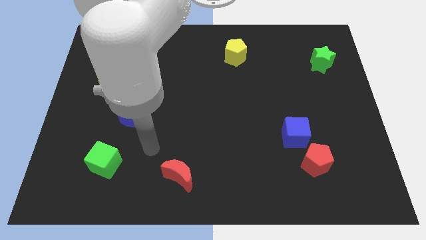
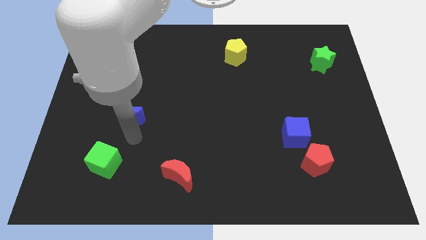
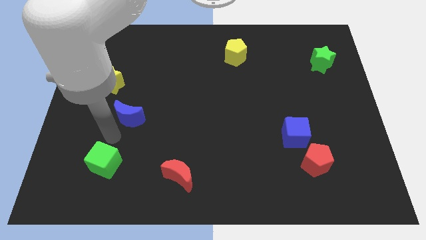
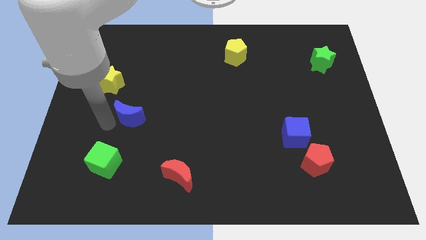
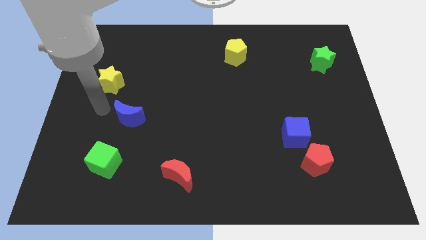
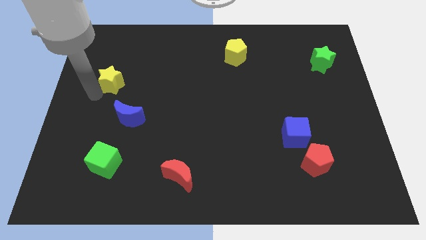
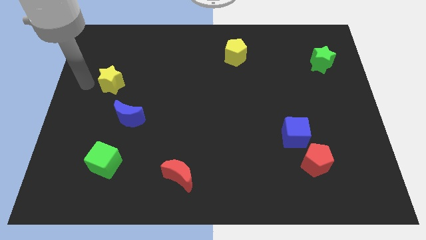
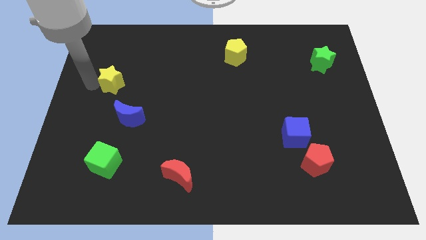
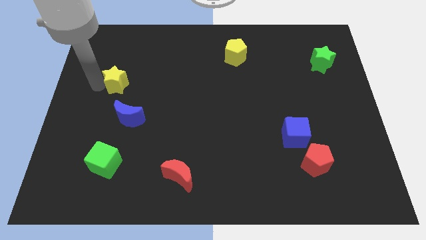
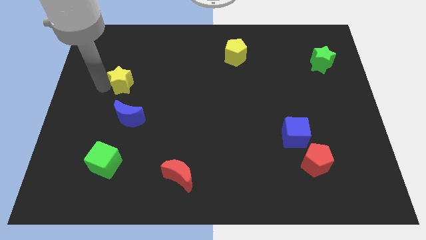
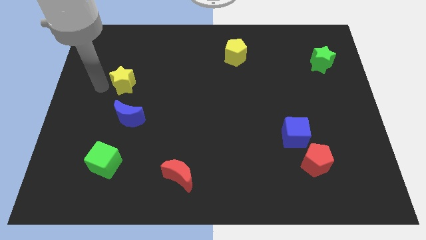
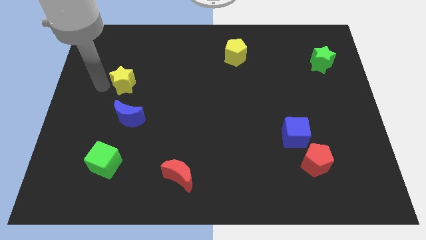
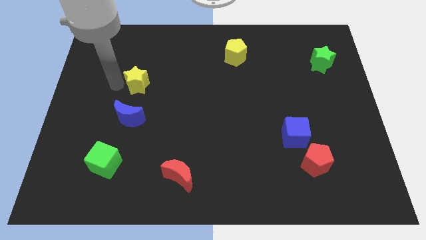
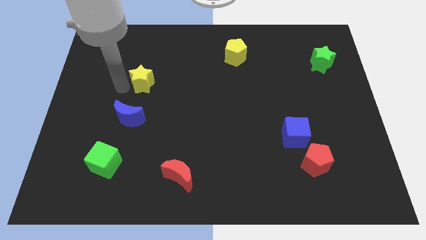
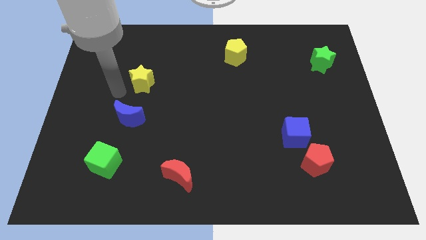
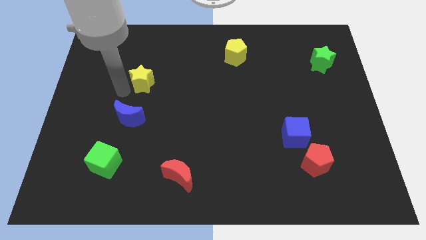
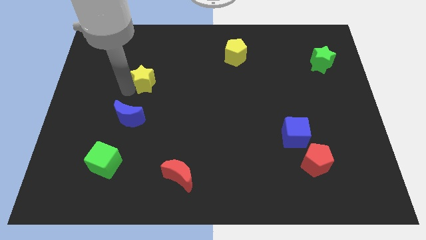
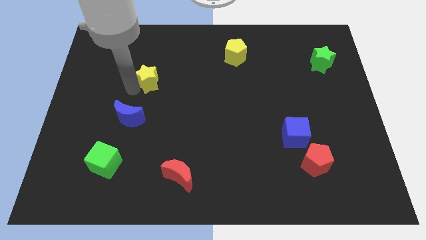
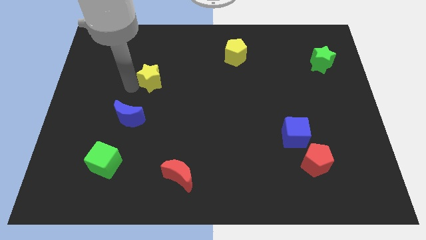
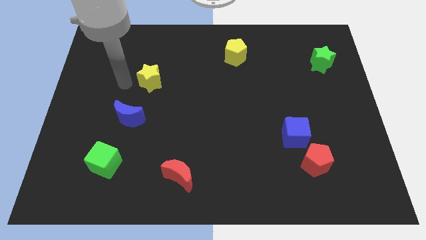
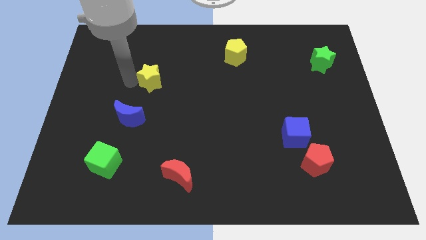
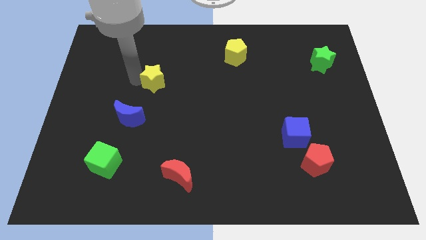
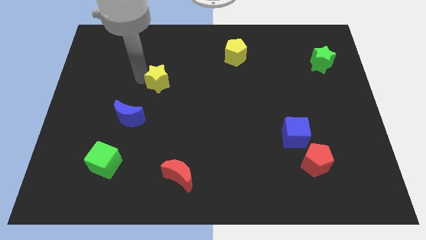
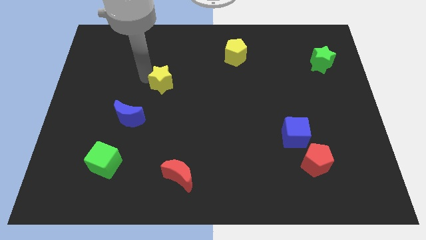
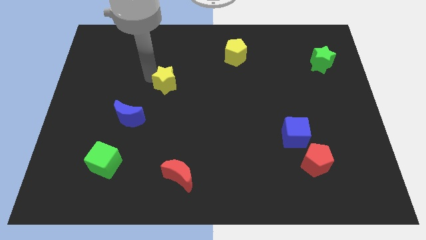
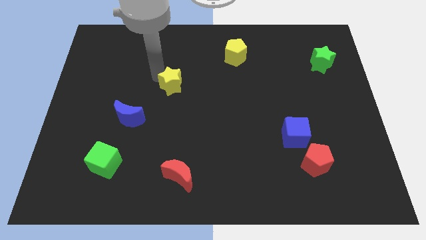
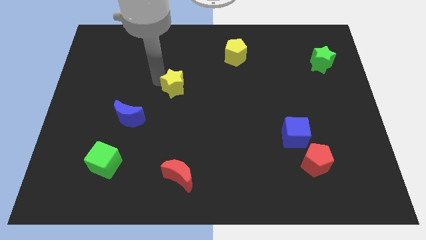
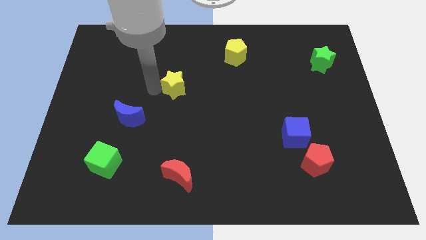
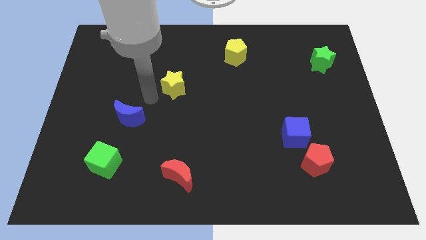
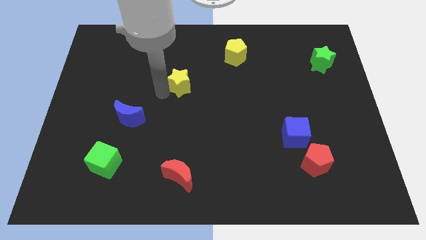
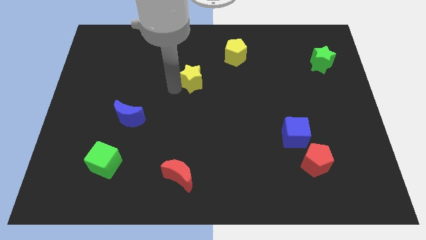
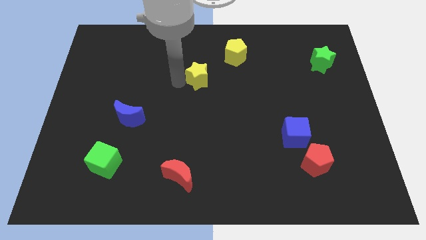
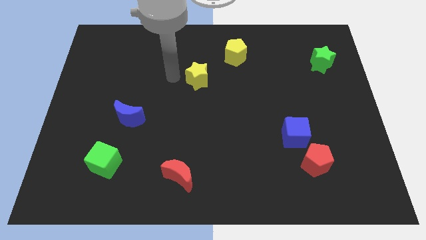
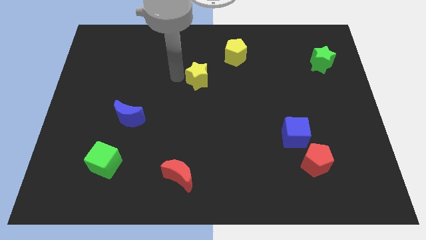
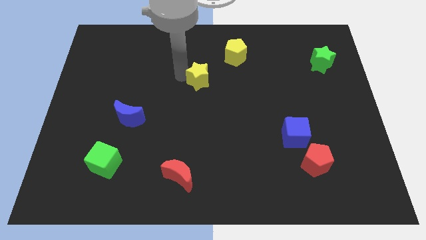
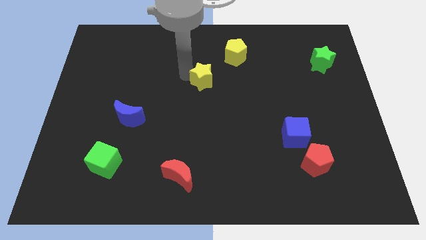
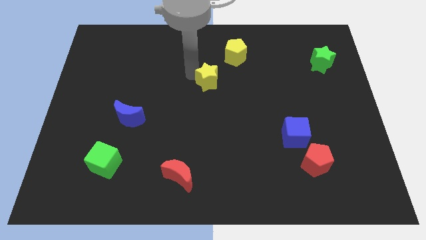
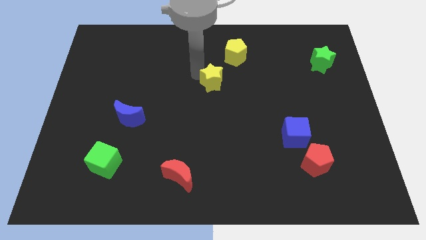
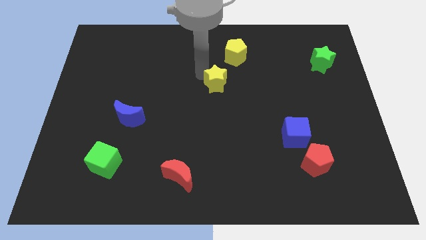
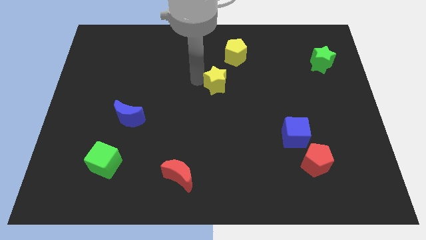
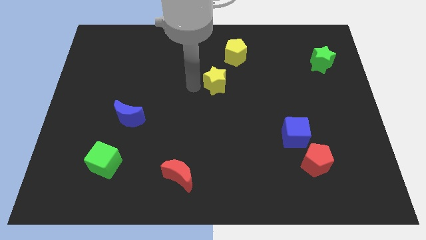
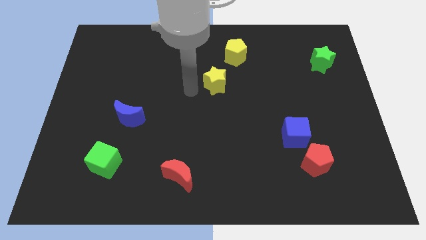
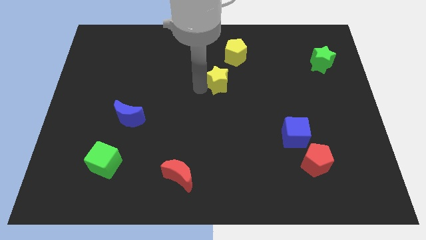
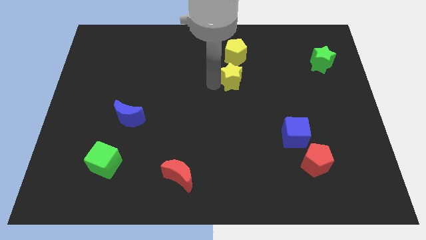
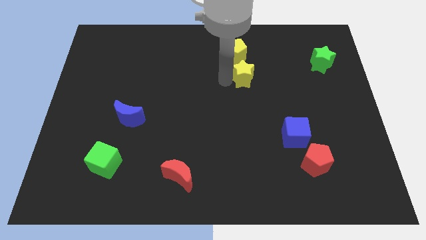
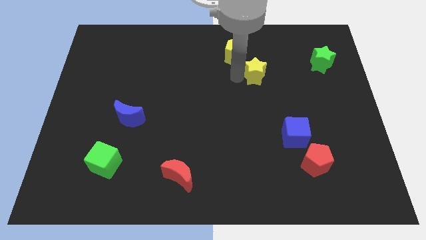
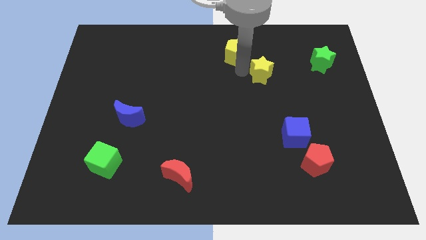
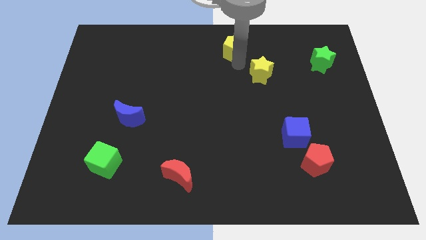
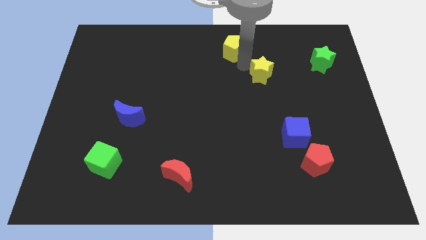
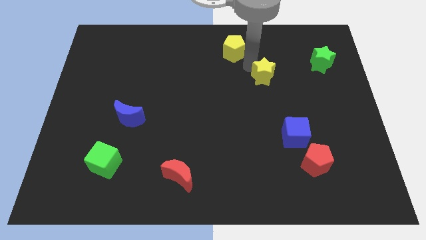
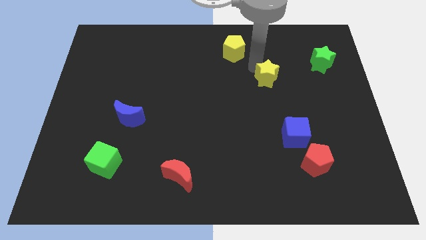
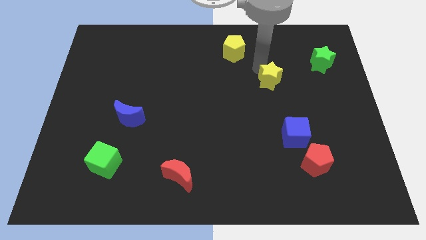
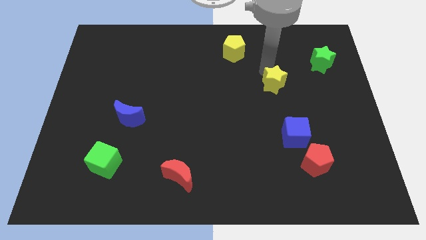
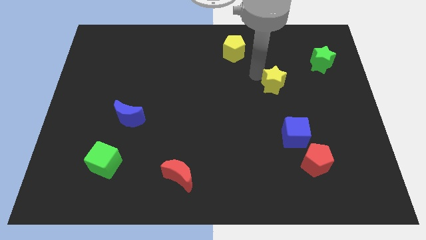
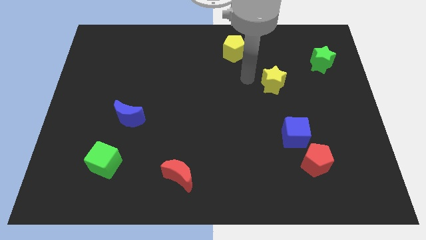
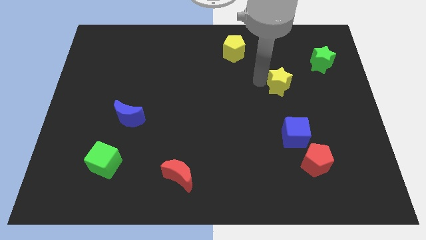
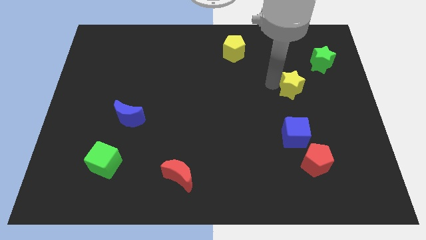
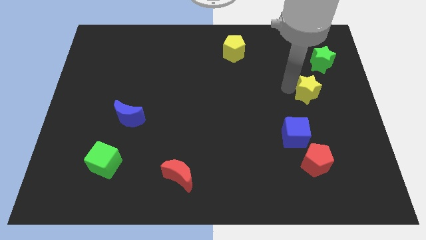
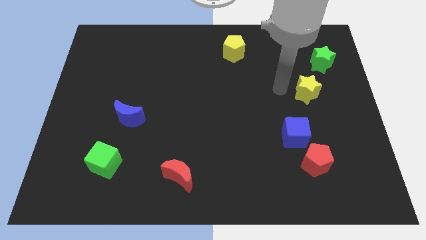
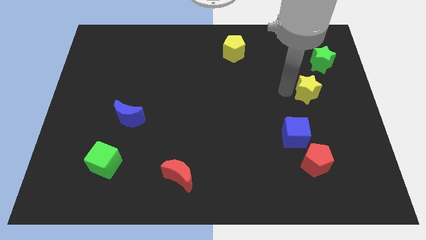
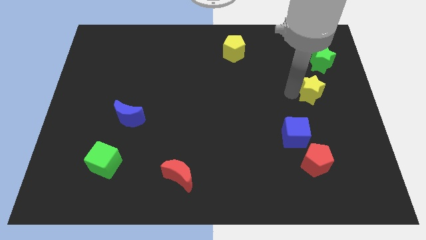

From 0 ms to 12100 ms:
move the yellow star to the bottom side of the green star

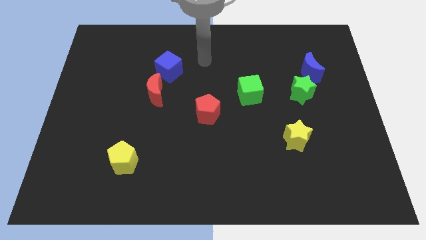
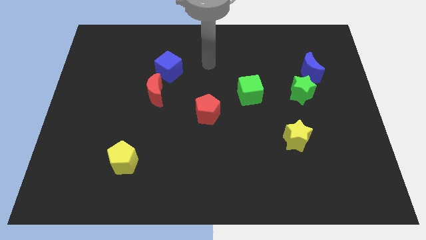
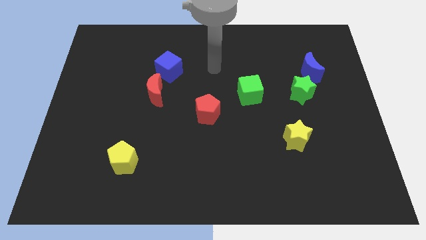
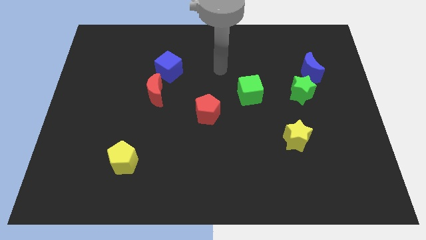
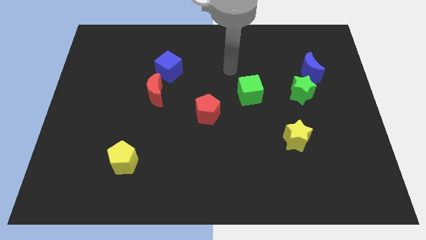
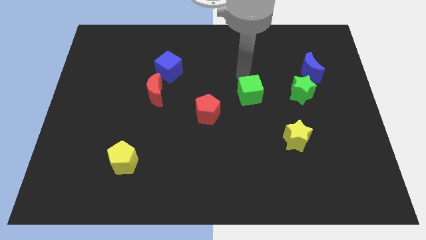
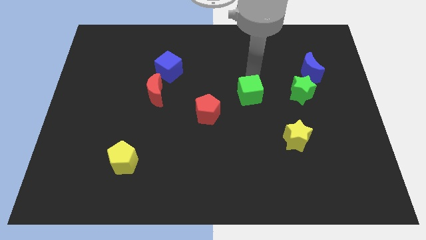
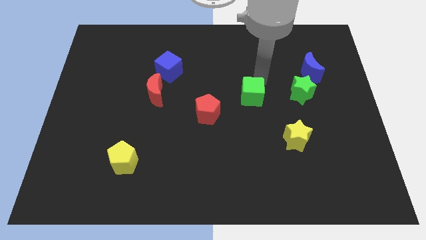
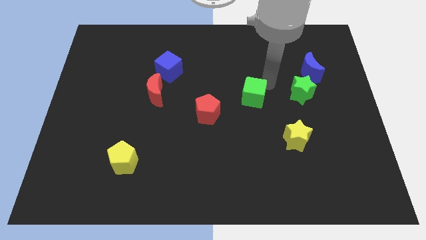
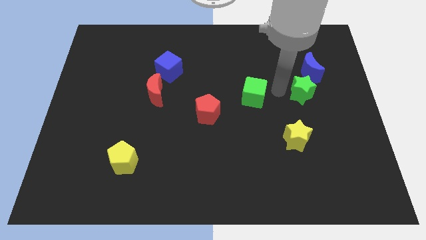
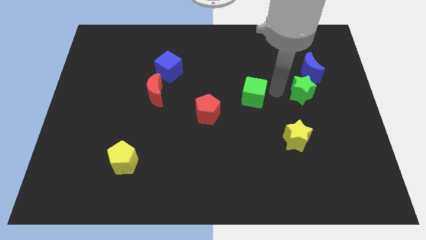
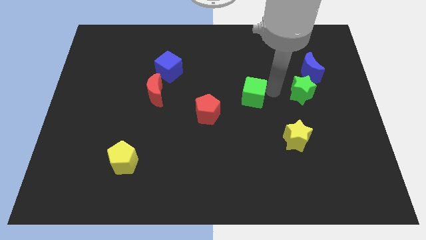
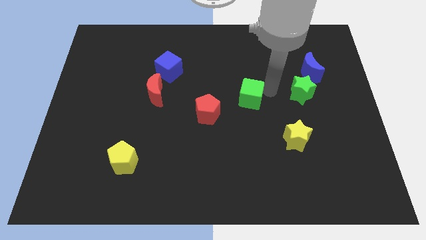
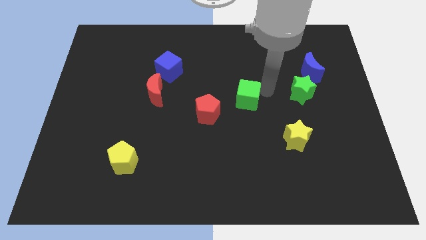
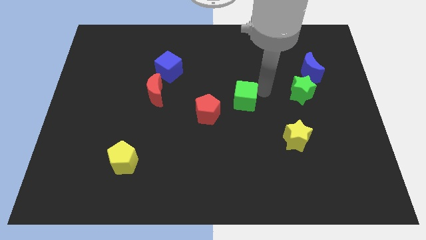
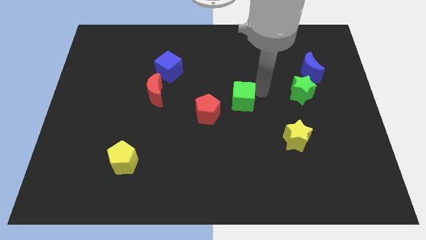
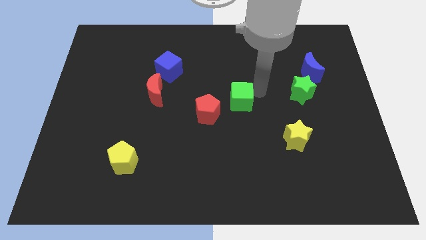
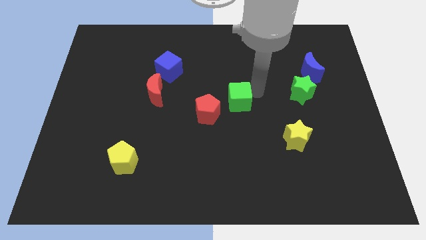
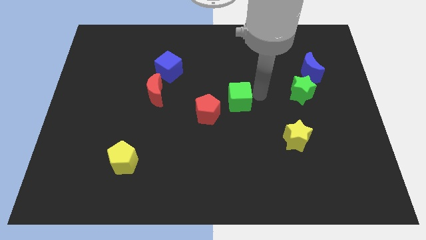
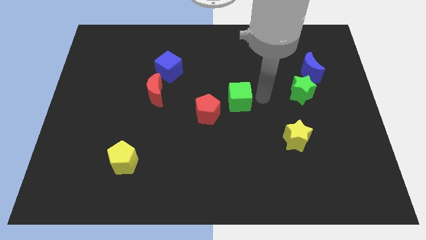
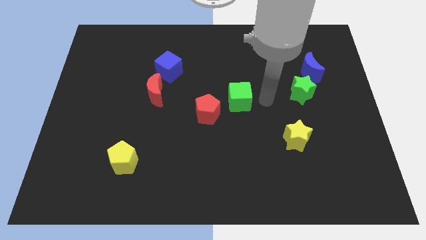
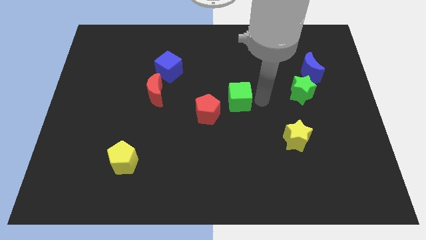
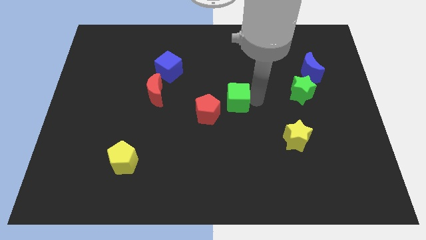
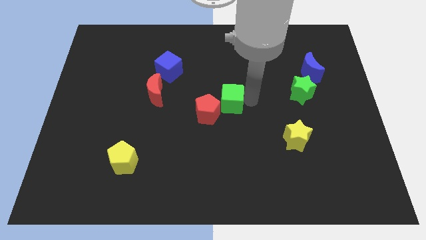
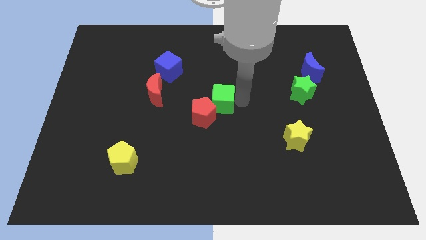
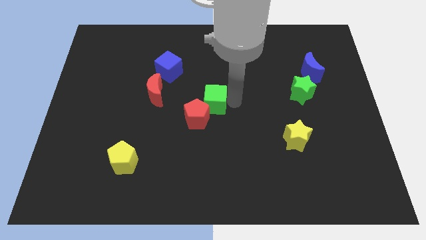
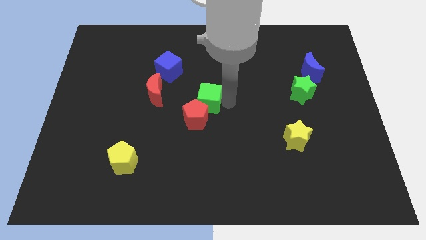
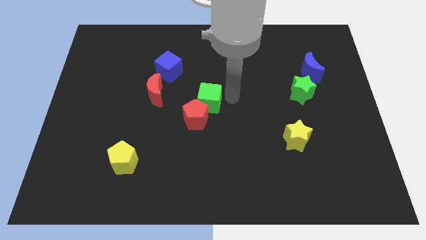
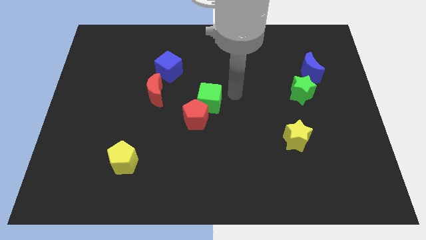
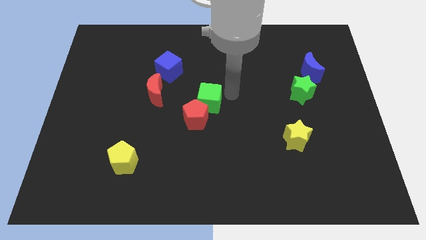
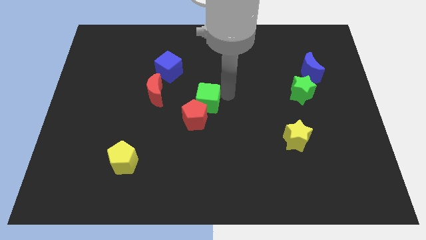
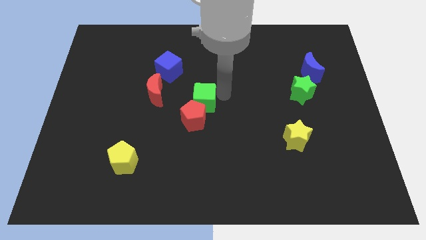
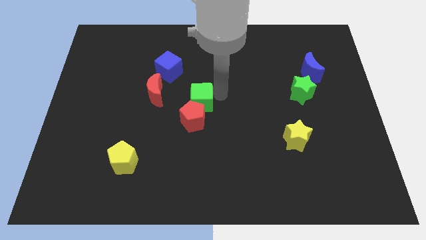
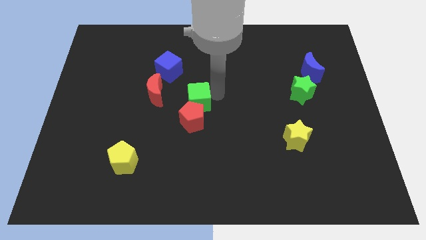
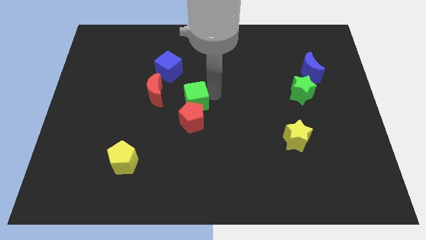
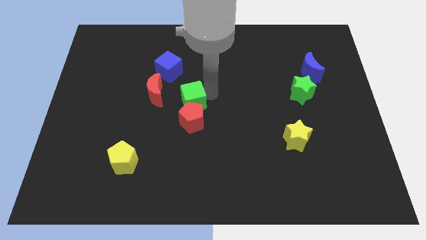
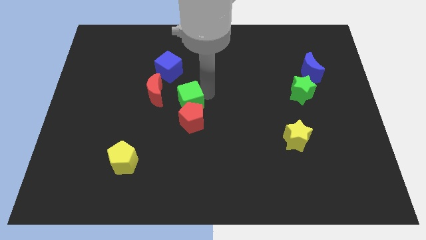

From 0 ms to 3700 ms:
slide the green cube to the bottom right side of the red moon
